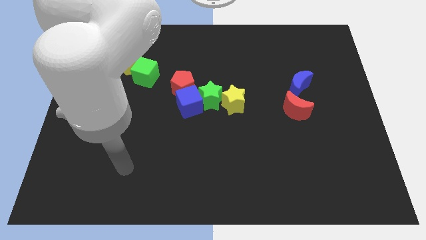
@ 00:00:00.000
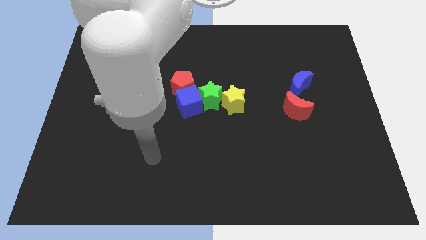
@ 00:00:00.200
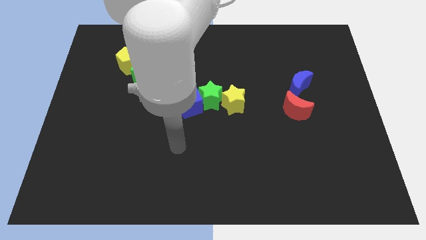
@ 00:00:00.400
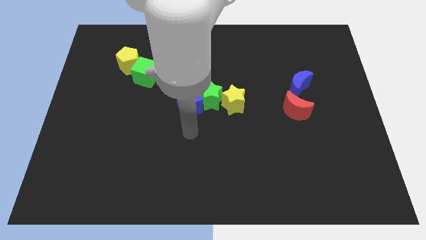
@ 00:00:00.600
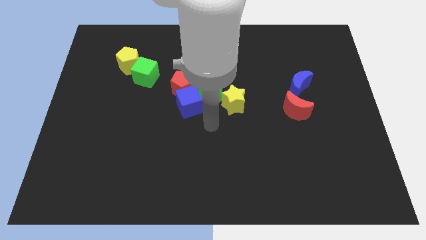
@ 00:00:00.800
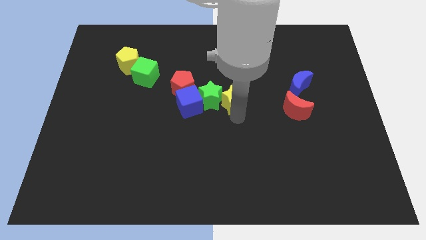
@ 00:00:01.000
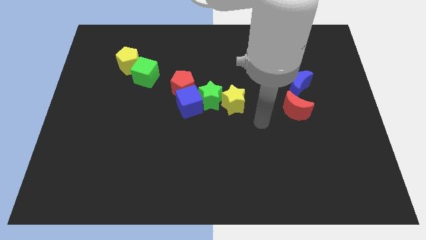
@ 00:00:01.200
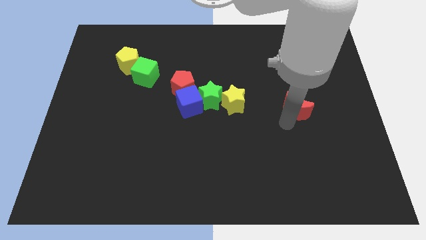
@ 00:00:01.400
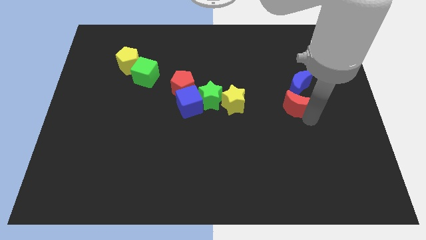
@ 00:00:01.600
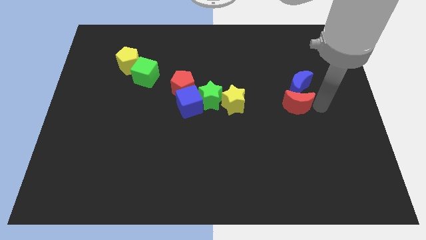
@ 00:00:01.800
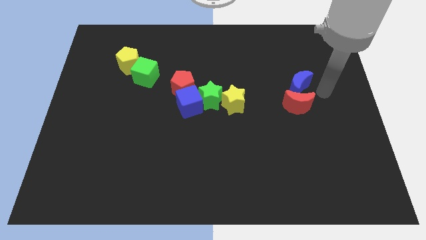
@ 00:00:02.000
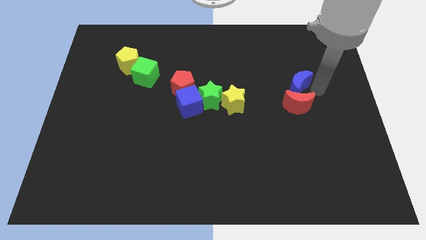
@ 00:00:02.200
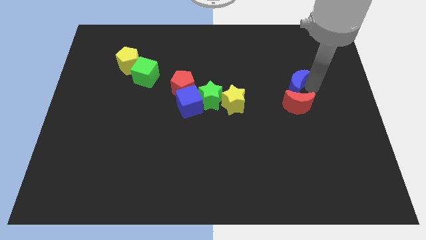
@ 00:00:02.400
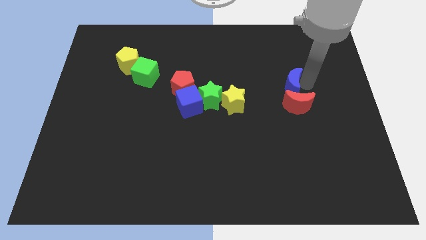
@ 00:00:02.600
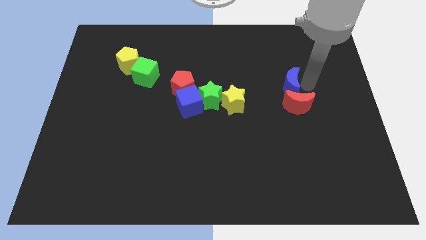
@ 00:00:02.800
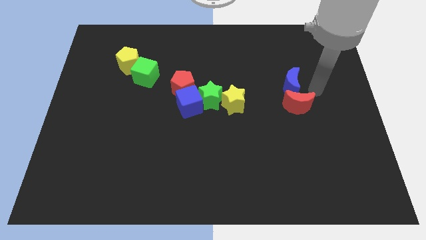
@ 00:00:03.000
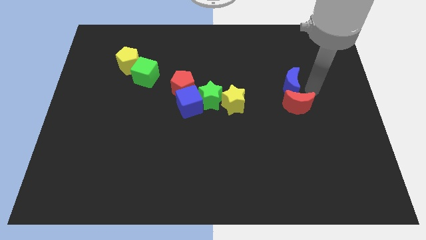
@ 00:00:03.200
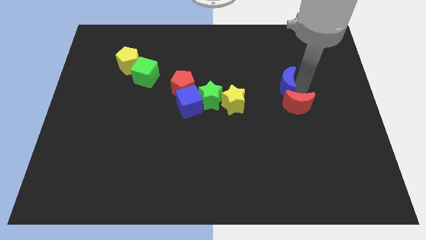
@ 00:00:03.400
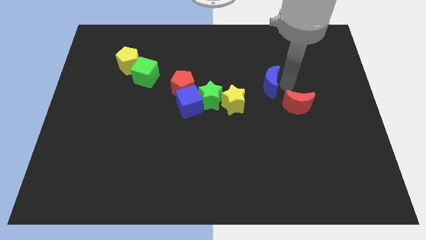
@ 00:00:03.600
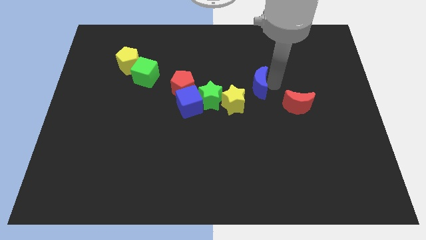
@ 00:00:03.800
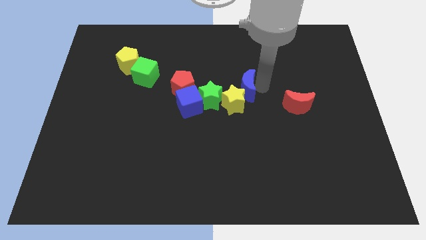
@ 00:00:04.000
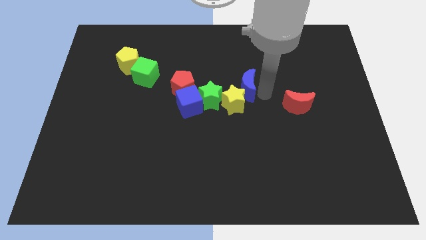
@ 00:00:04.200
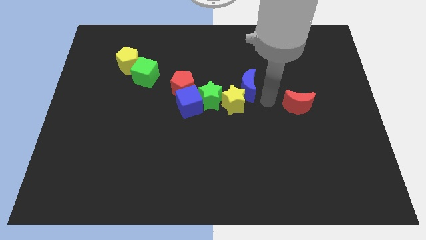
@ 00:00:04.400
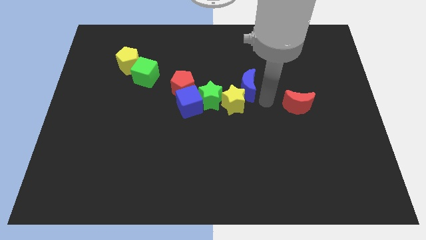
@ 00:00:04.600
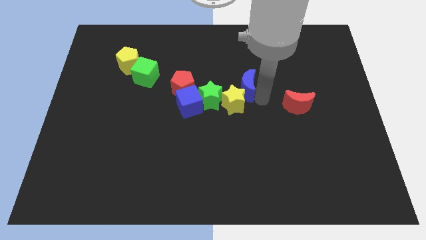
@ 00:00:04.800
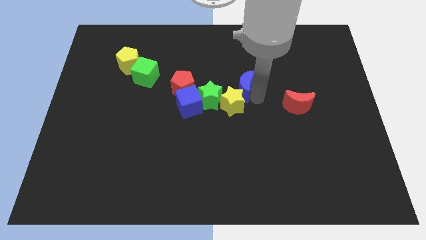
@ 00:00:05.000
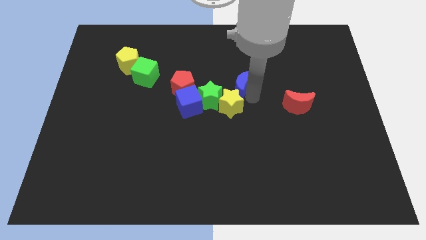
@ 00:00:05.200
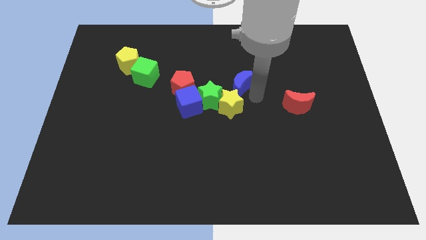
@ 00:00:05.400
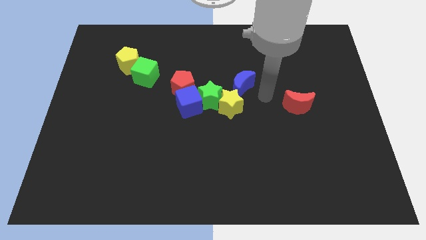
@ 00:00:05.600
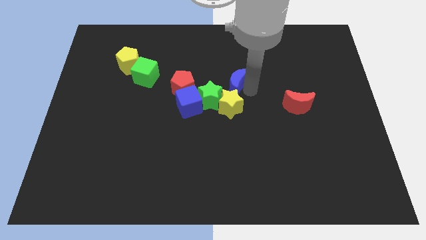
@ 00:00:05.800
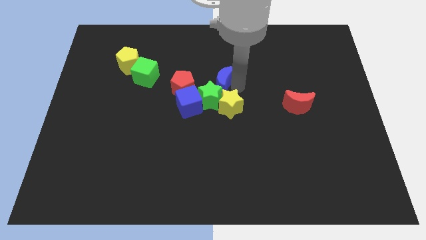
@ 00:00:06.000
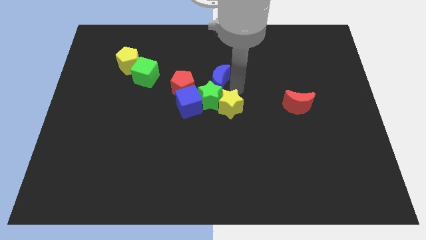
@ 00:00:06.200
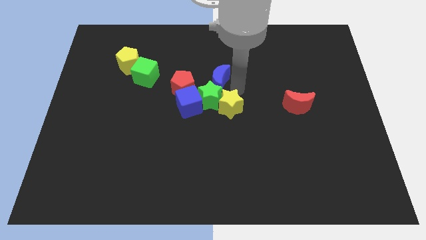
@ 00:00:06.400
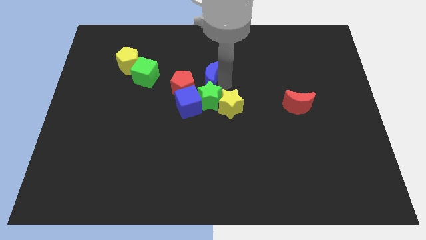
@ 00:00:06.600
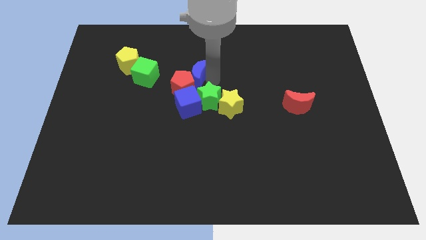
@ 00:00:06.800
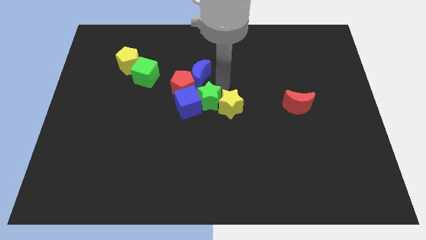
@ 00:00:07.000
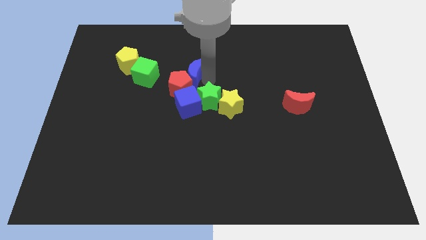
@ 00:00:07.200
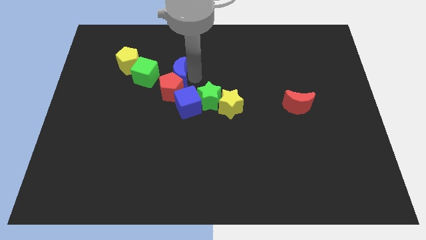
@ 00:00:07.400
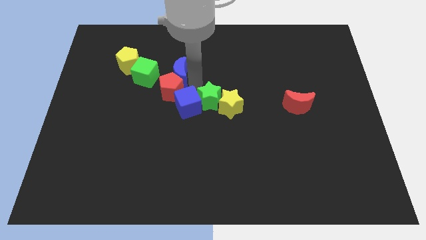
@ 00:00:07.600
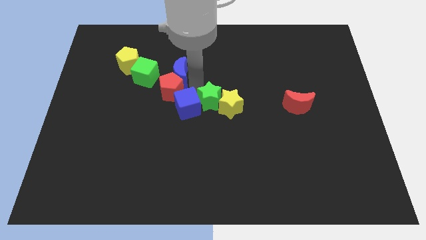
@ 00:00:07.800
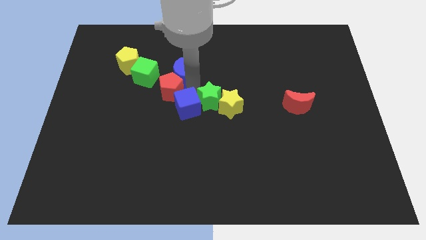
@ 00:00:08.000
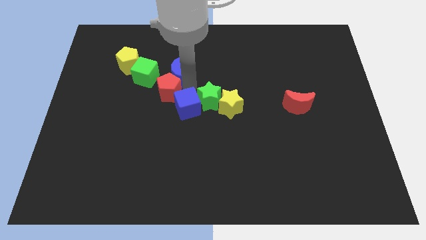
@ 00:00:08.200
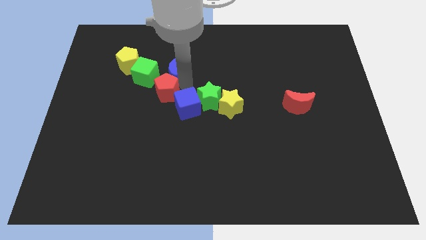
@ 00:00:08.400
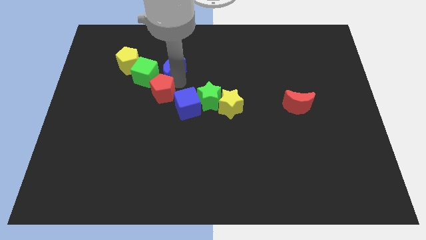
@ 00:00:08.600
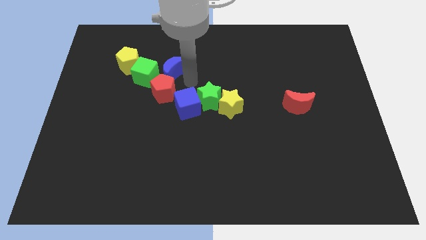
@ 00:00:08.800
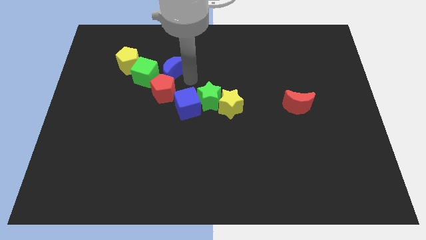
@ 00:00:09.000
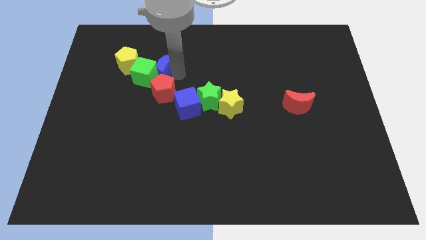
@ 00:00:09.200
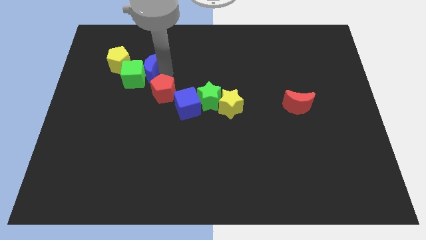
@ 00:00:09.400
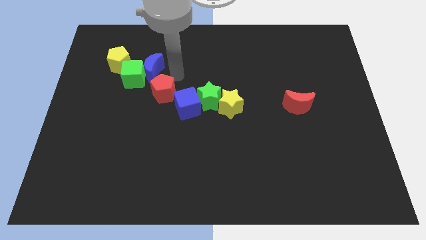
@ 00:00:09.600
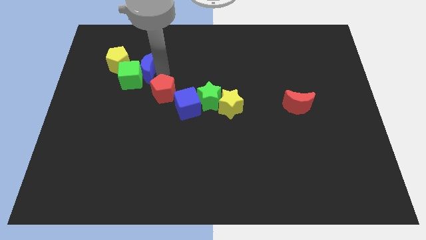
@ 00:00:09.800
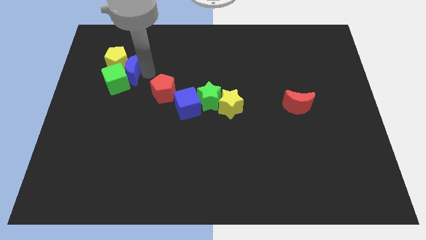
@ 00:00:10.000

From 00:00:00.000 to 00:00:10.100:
move the blue moon next to the yellow pentagon

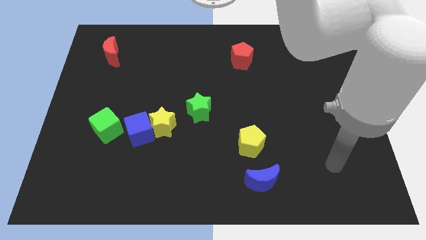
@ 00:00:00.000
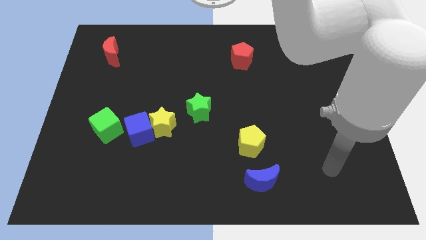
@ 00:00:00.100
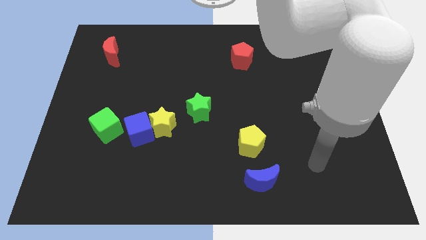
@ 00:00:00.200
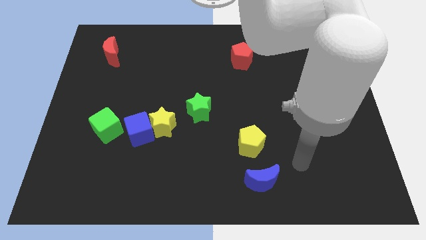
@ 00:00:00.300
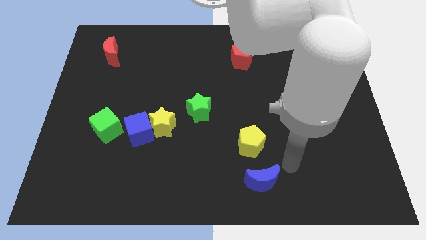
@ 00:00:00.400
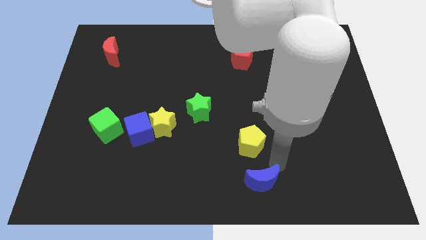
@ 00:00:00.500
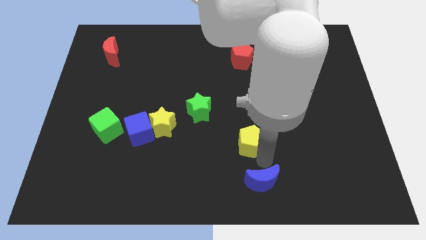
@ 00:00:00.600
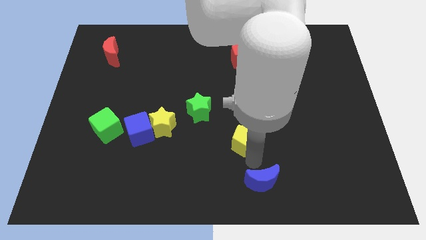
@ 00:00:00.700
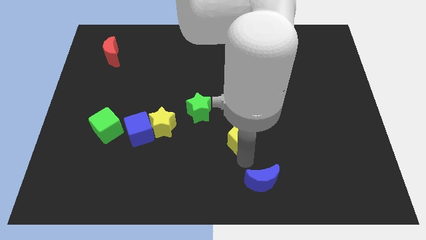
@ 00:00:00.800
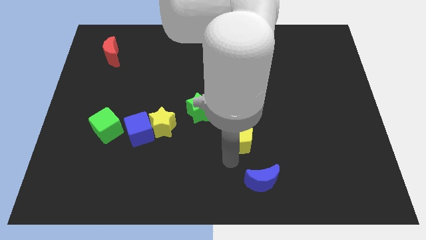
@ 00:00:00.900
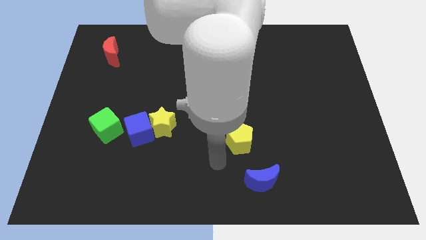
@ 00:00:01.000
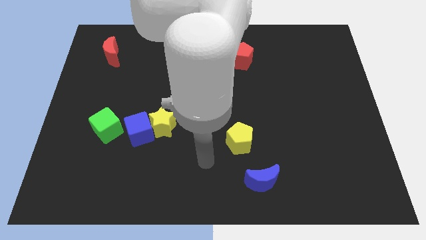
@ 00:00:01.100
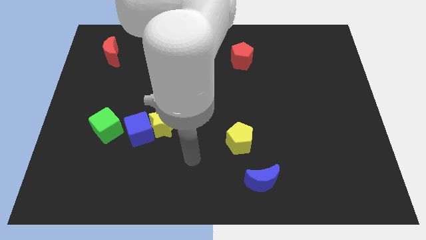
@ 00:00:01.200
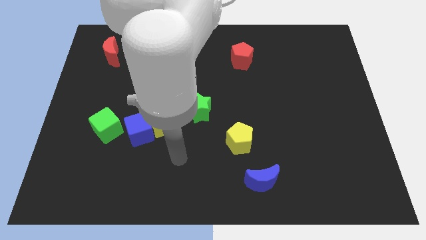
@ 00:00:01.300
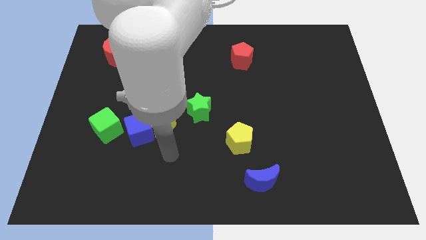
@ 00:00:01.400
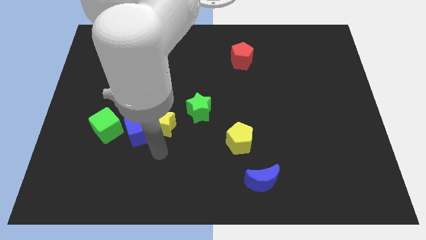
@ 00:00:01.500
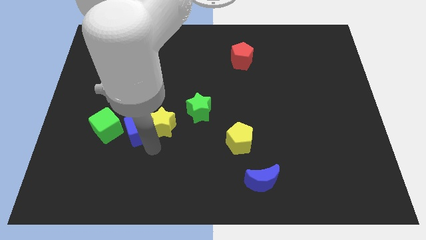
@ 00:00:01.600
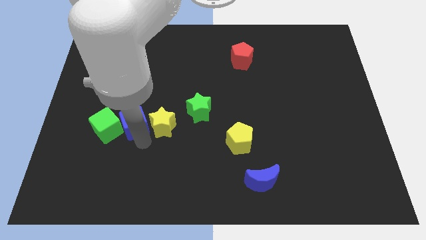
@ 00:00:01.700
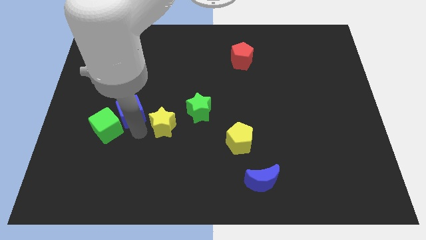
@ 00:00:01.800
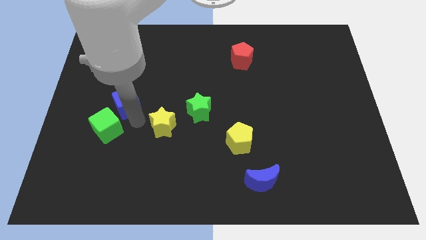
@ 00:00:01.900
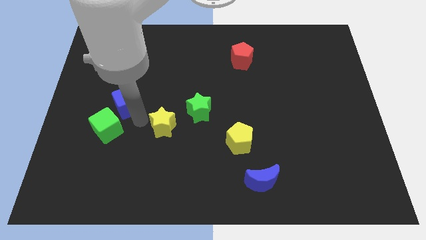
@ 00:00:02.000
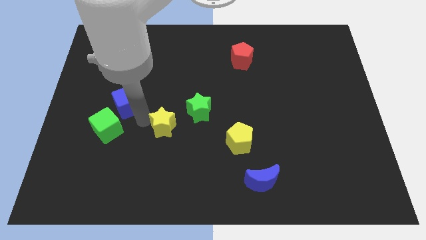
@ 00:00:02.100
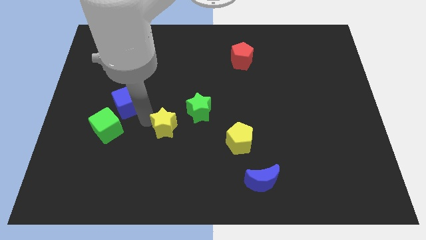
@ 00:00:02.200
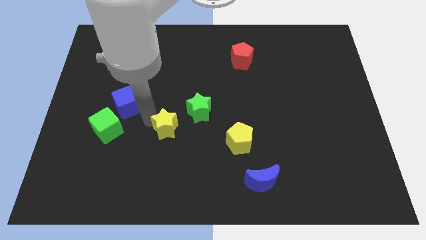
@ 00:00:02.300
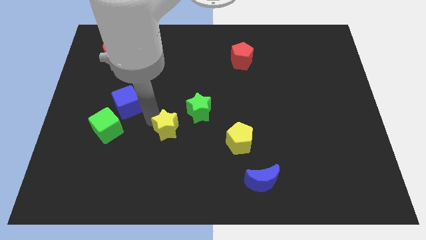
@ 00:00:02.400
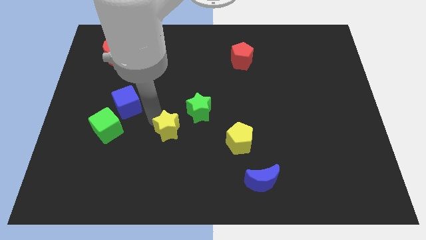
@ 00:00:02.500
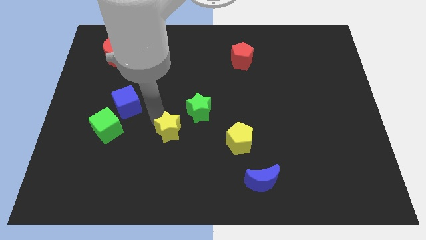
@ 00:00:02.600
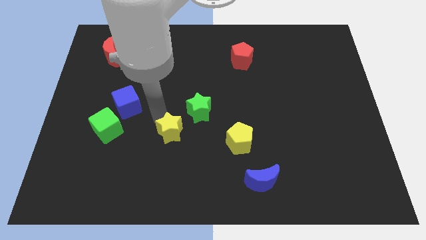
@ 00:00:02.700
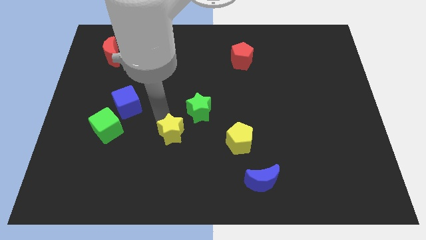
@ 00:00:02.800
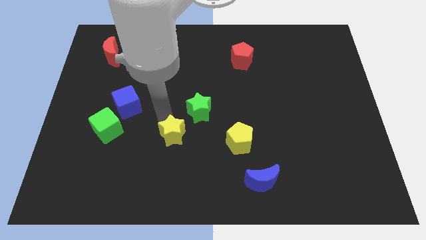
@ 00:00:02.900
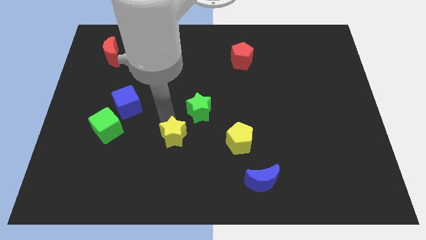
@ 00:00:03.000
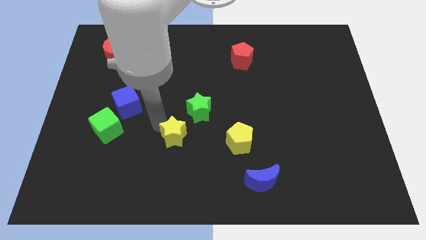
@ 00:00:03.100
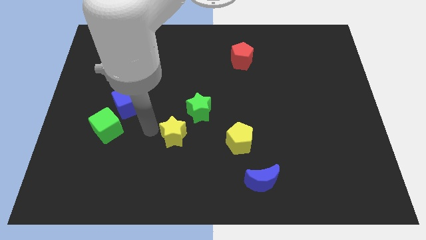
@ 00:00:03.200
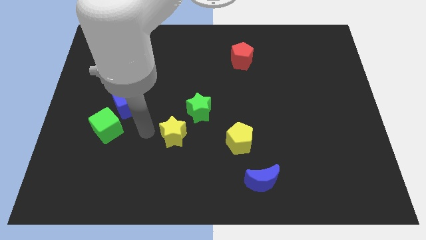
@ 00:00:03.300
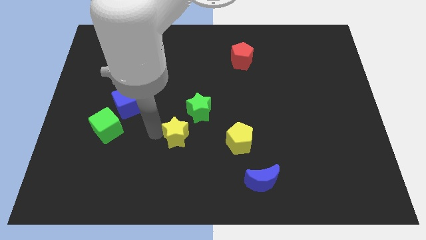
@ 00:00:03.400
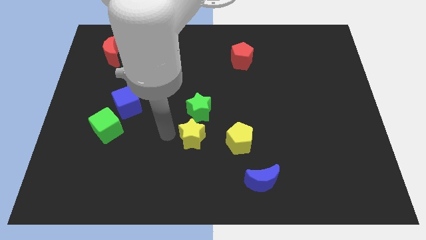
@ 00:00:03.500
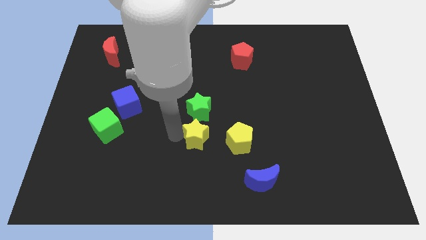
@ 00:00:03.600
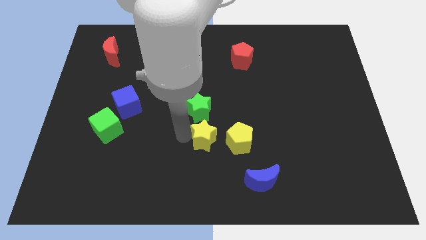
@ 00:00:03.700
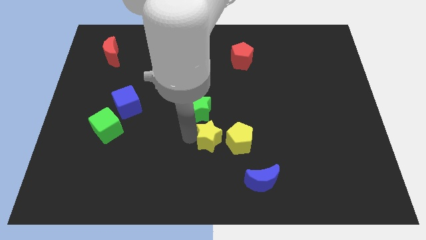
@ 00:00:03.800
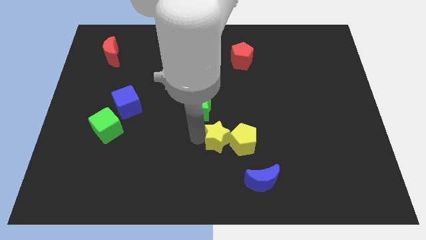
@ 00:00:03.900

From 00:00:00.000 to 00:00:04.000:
push the yellow star towards the yellow pentagon
